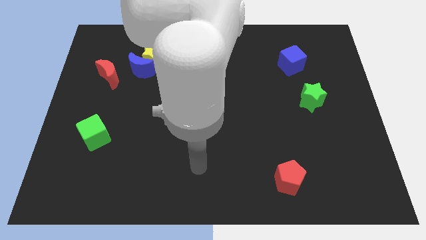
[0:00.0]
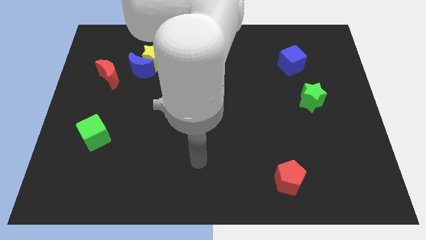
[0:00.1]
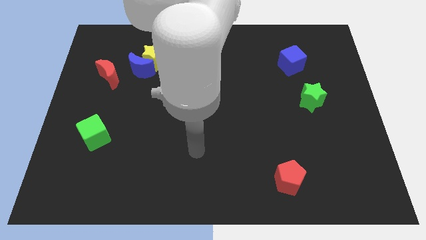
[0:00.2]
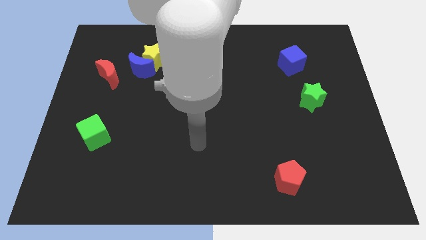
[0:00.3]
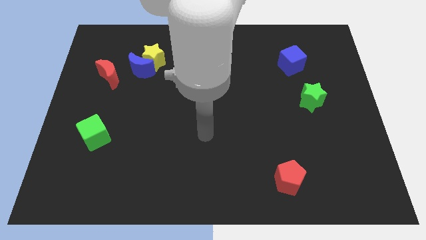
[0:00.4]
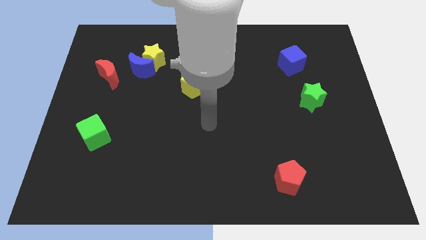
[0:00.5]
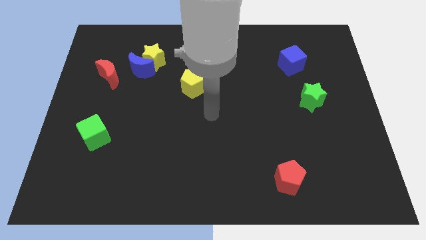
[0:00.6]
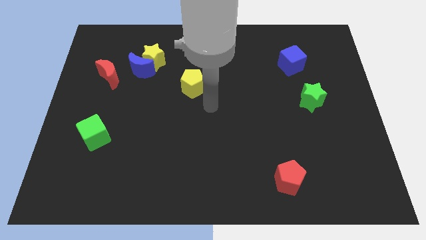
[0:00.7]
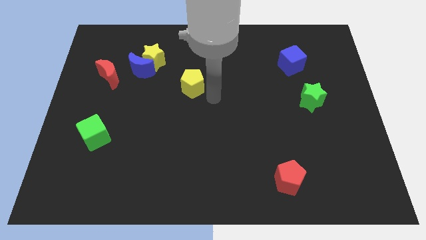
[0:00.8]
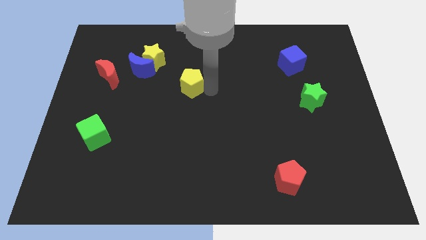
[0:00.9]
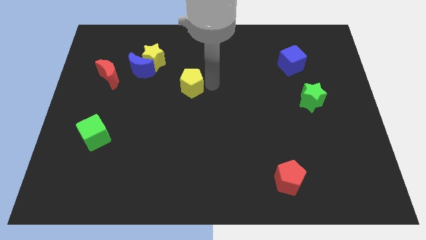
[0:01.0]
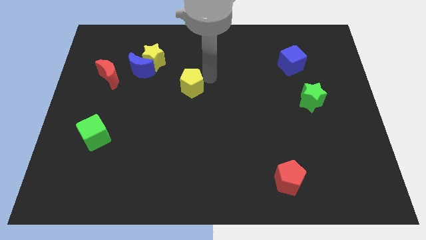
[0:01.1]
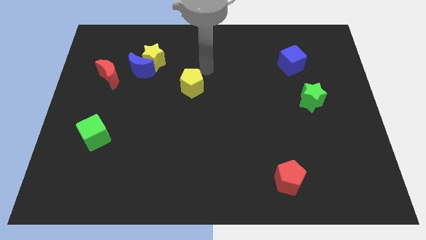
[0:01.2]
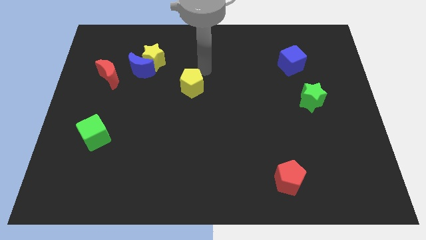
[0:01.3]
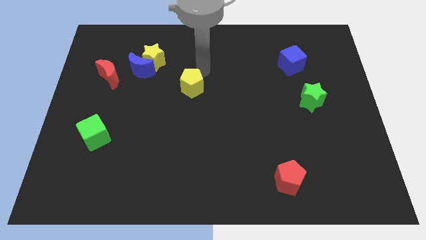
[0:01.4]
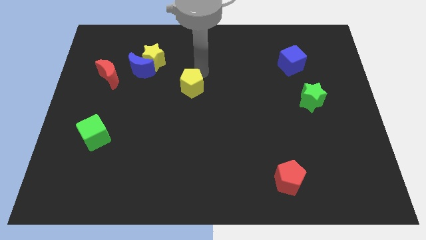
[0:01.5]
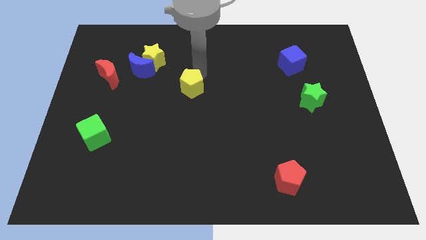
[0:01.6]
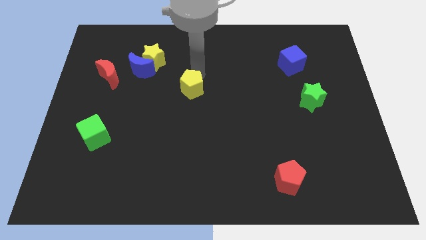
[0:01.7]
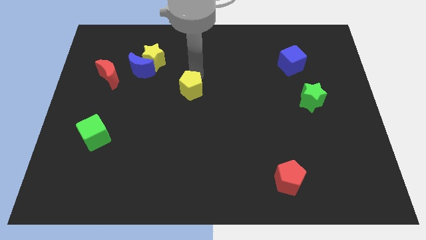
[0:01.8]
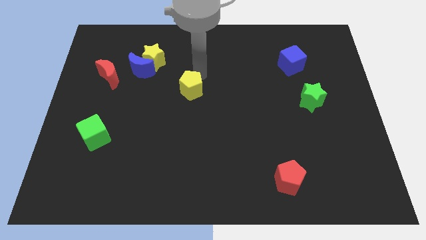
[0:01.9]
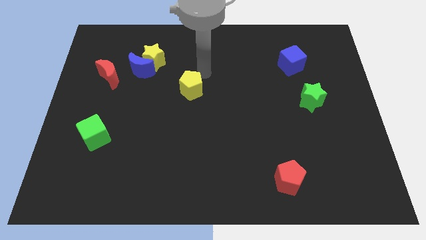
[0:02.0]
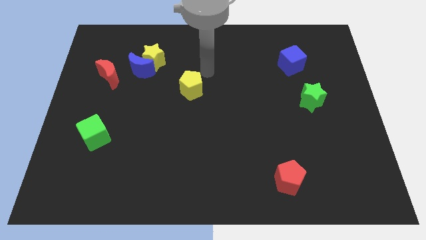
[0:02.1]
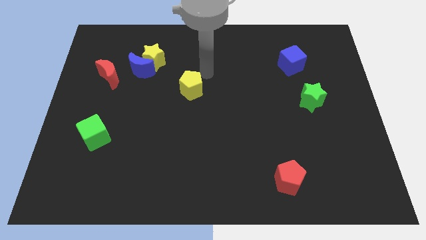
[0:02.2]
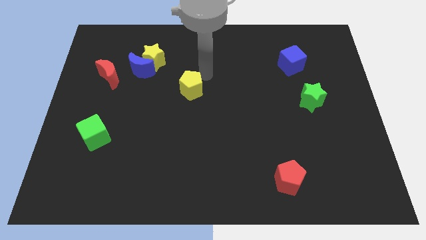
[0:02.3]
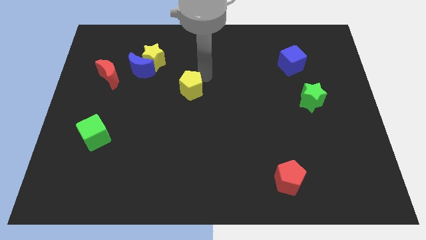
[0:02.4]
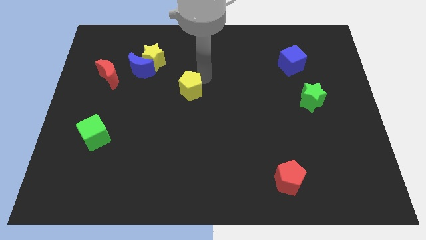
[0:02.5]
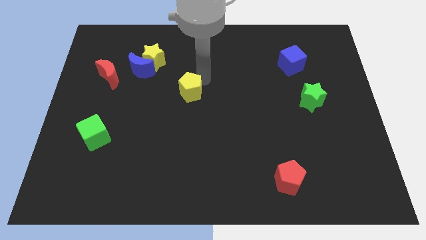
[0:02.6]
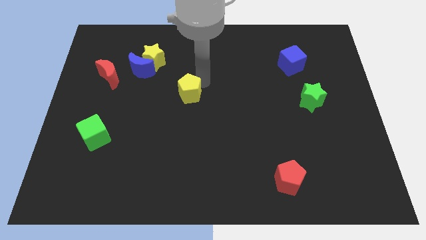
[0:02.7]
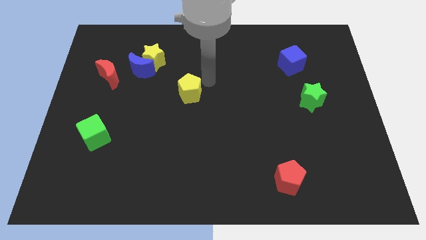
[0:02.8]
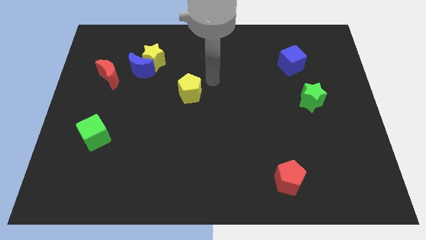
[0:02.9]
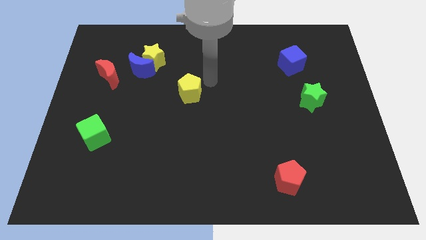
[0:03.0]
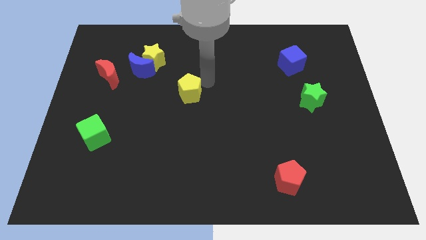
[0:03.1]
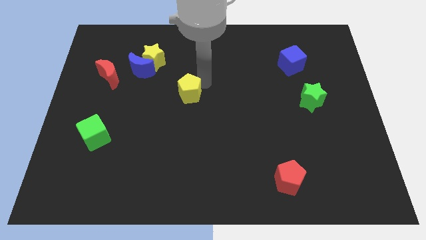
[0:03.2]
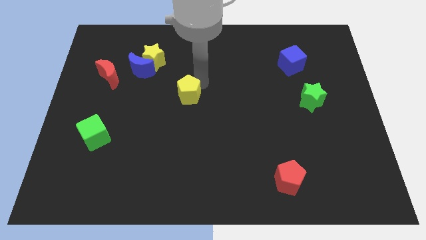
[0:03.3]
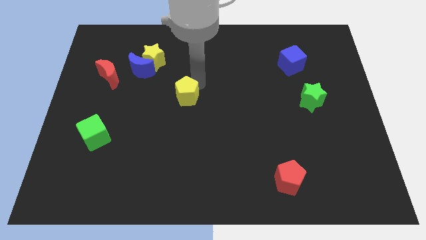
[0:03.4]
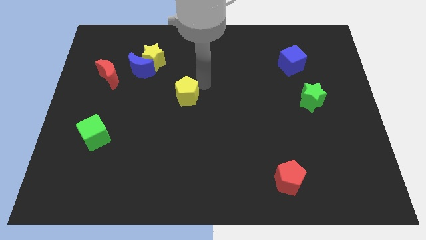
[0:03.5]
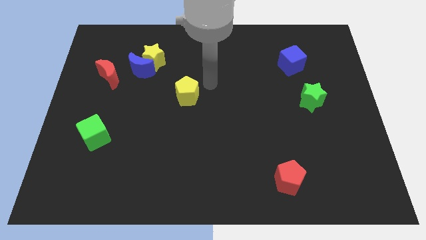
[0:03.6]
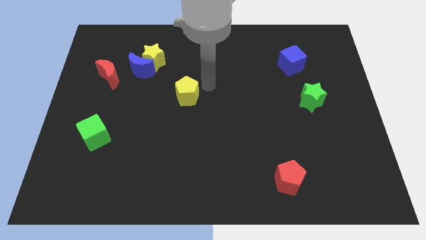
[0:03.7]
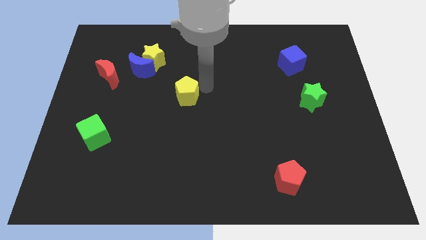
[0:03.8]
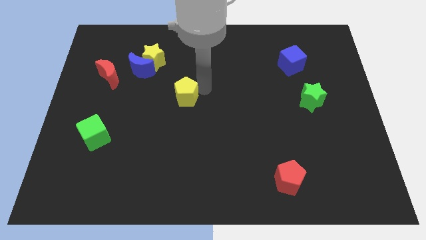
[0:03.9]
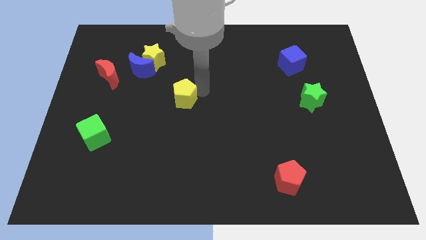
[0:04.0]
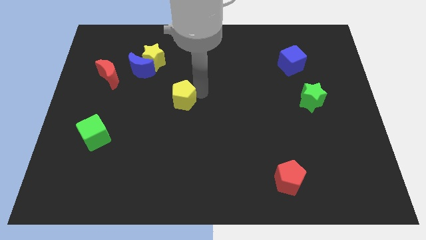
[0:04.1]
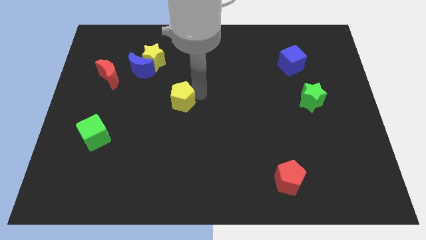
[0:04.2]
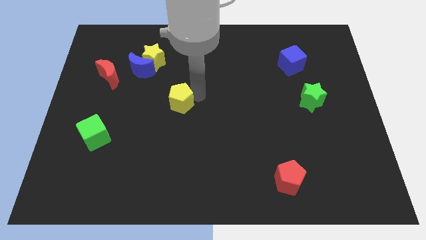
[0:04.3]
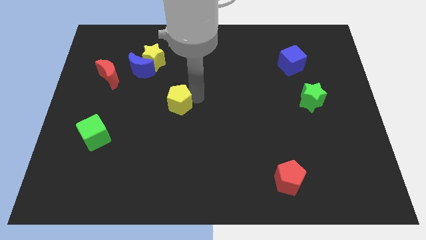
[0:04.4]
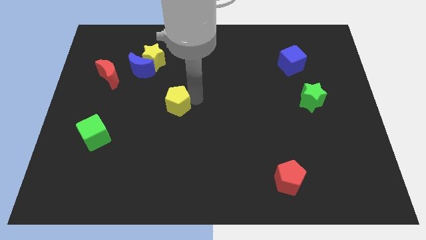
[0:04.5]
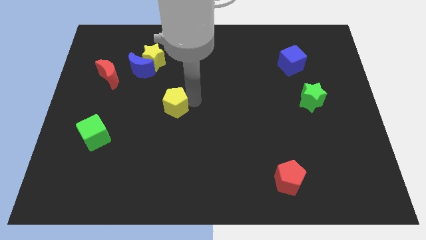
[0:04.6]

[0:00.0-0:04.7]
slide the yellow pentagon a little bit diagonally downwards and to the left

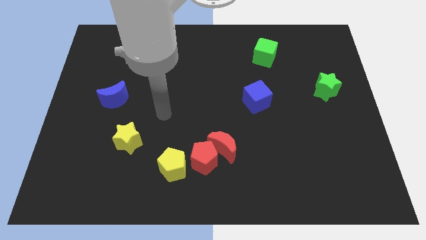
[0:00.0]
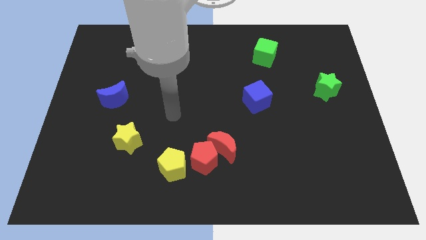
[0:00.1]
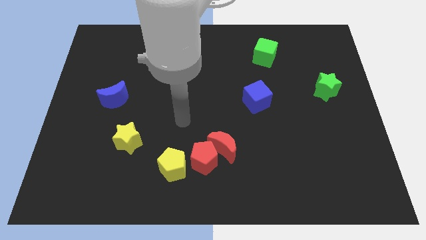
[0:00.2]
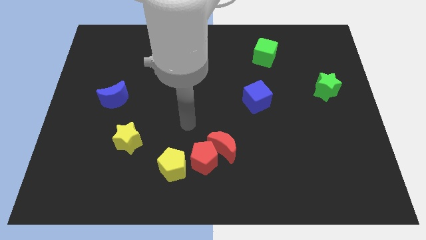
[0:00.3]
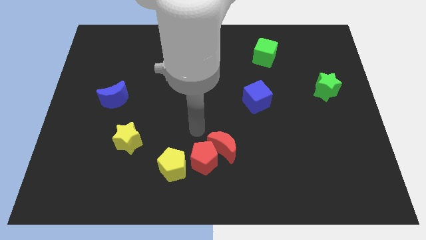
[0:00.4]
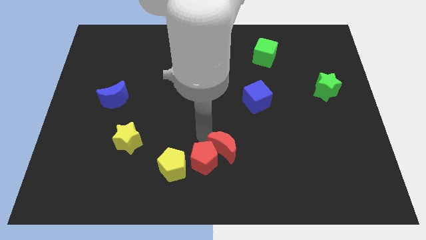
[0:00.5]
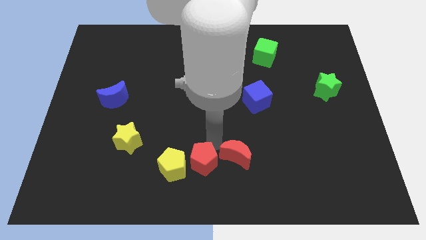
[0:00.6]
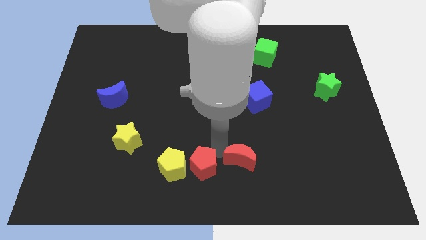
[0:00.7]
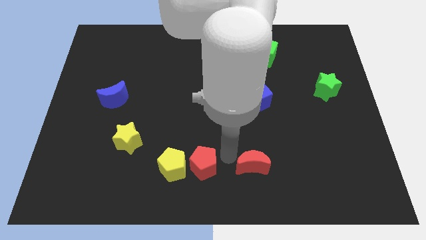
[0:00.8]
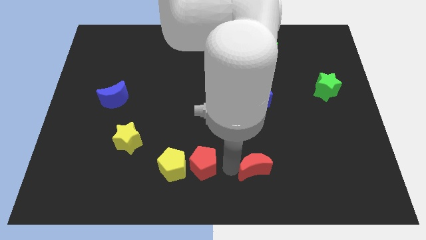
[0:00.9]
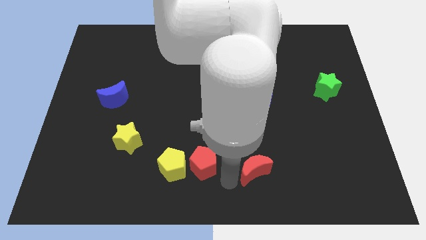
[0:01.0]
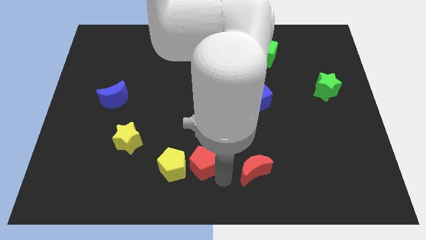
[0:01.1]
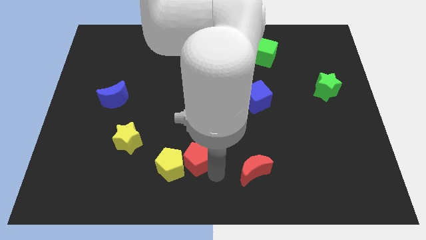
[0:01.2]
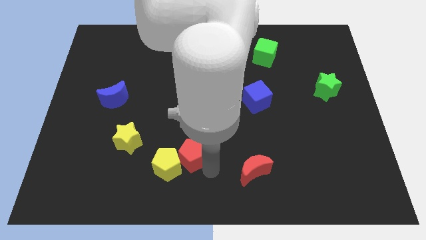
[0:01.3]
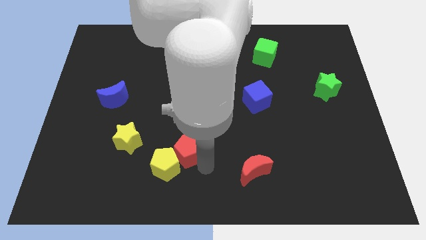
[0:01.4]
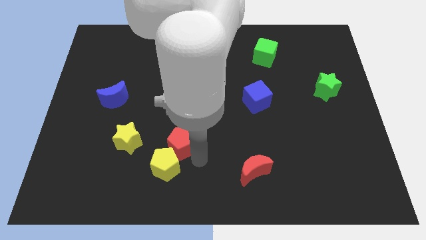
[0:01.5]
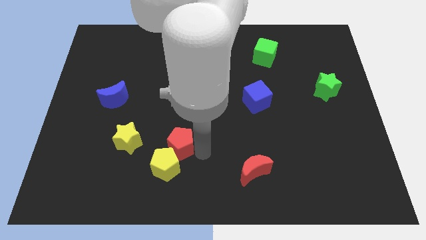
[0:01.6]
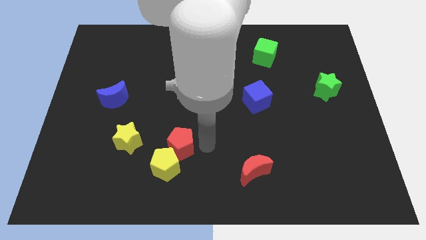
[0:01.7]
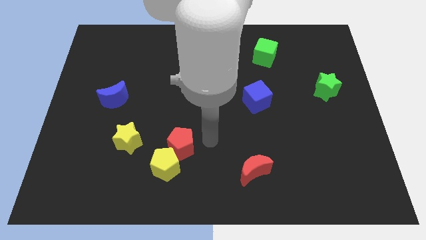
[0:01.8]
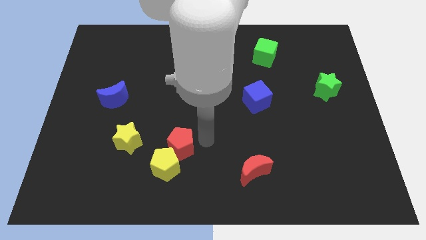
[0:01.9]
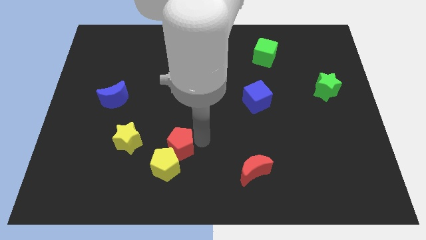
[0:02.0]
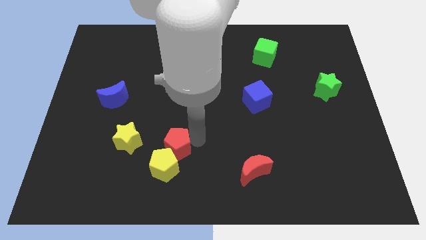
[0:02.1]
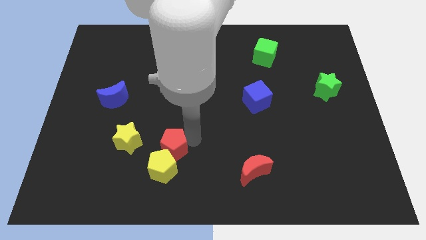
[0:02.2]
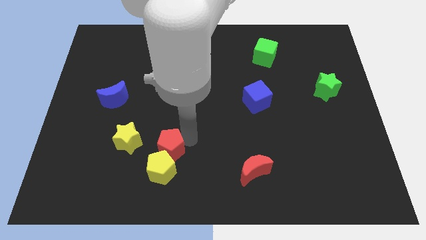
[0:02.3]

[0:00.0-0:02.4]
push the red pentagon to the left slightly

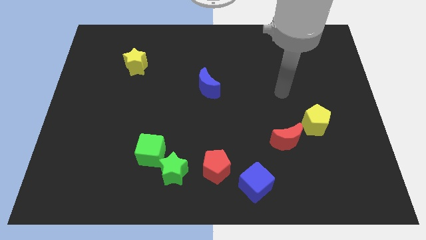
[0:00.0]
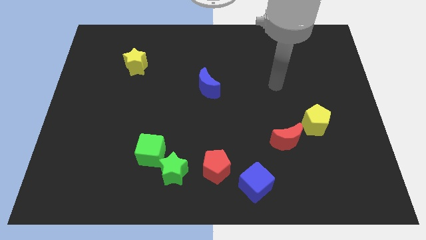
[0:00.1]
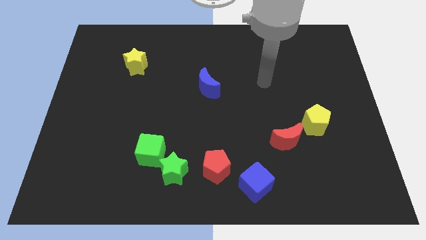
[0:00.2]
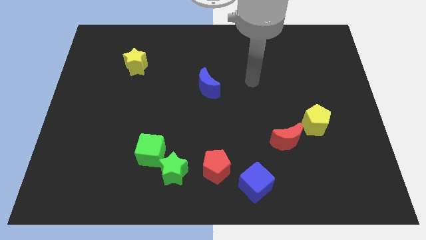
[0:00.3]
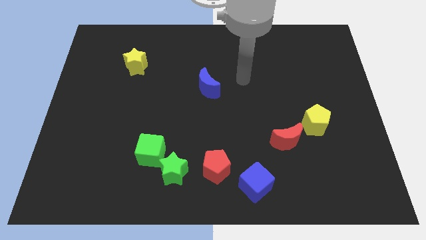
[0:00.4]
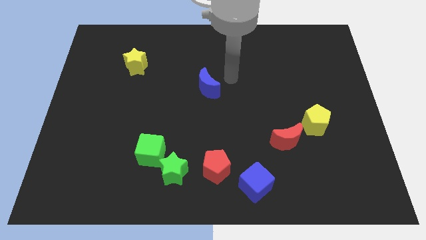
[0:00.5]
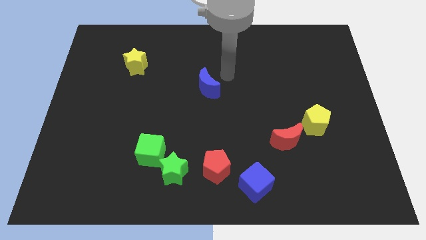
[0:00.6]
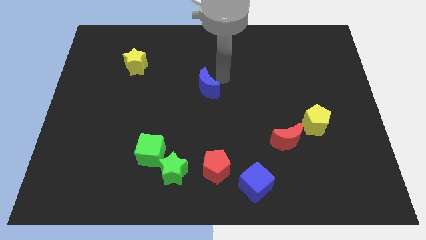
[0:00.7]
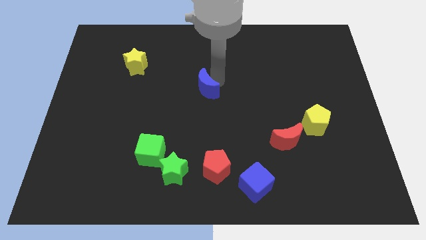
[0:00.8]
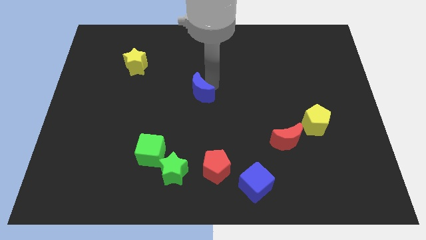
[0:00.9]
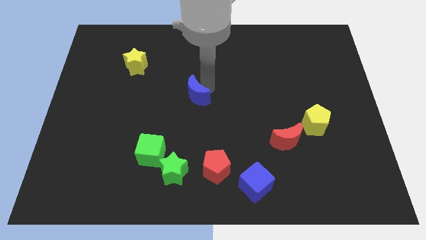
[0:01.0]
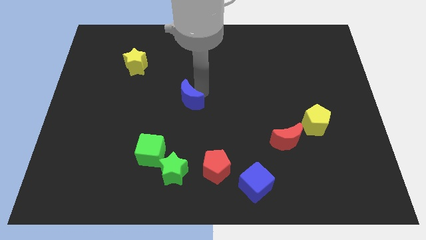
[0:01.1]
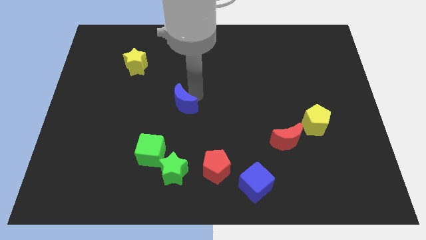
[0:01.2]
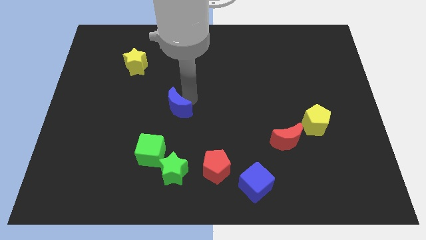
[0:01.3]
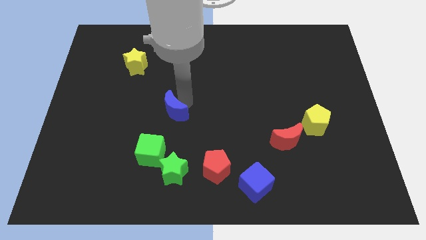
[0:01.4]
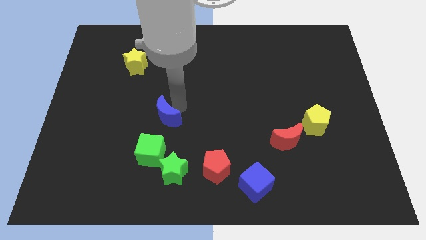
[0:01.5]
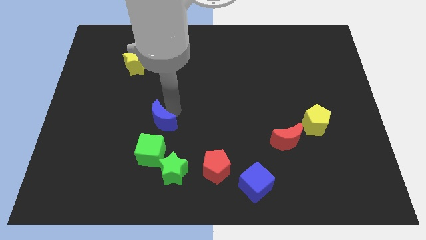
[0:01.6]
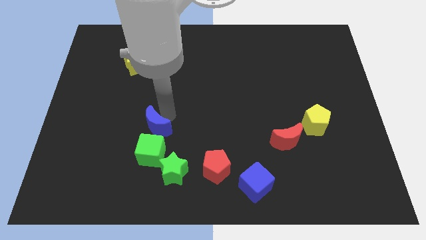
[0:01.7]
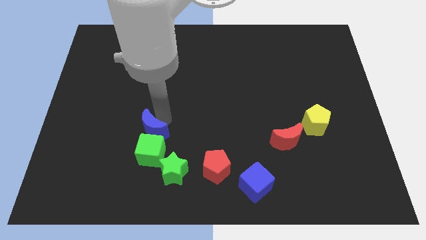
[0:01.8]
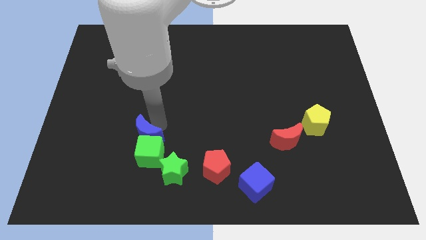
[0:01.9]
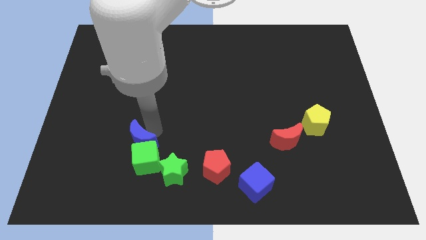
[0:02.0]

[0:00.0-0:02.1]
move the blue moon down and to the left
